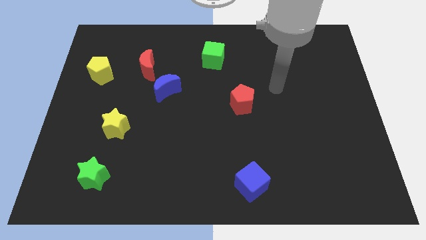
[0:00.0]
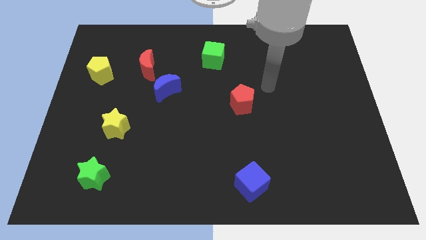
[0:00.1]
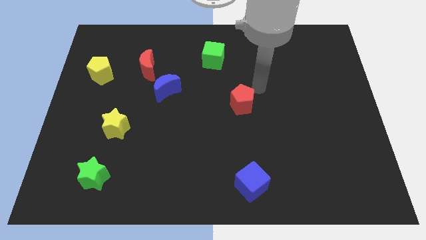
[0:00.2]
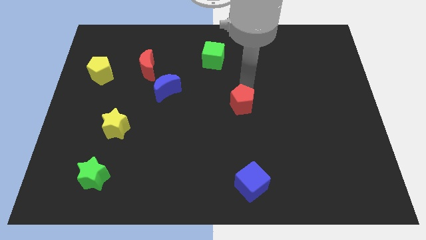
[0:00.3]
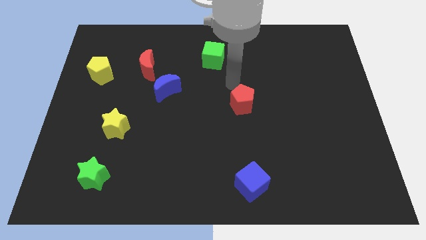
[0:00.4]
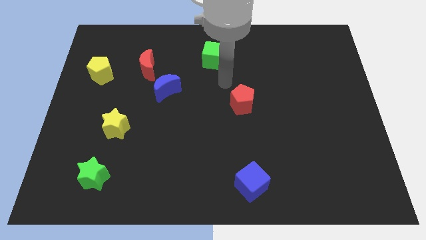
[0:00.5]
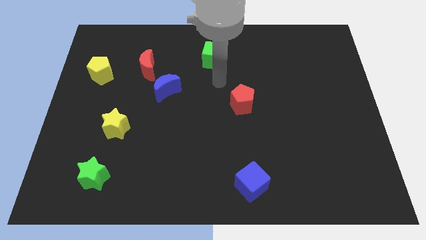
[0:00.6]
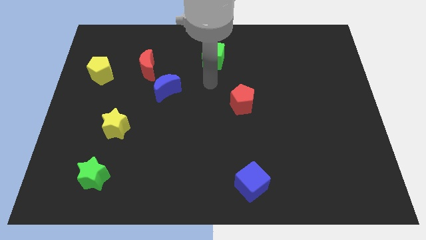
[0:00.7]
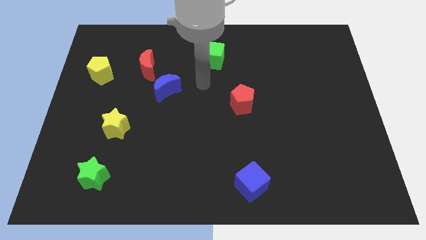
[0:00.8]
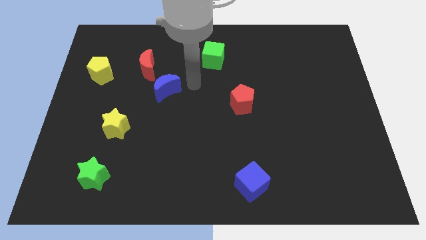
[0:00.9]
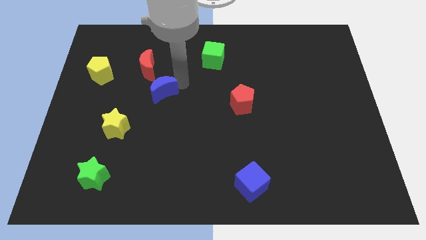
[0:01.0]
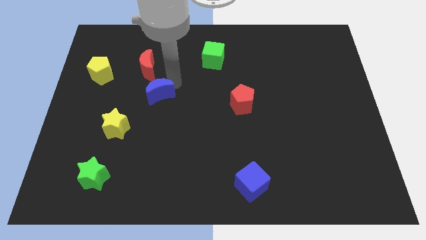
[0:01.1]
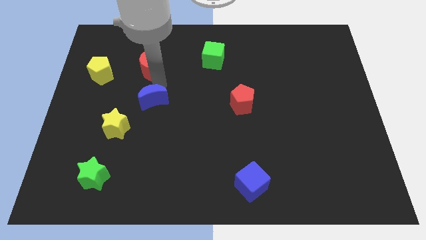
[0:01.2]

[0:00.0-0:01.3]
pull the red moon apart from the blue moon

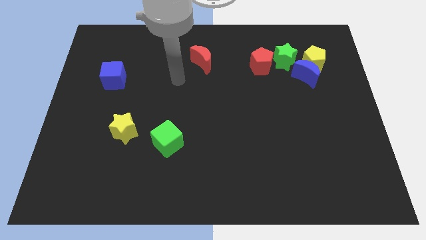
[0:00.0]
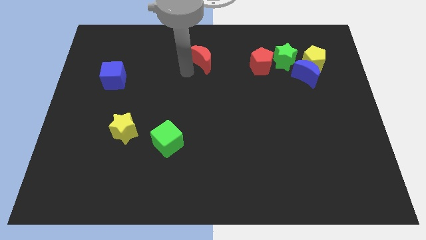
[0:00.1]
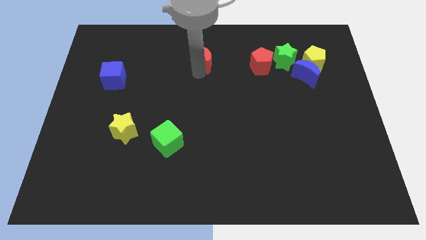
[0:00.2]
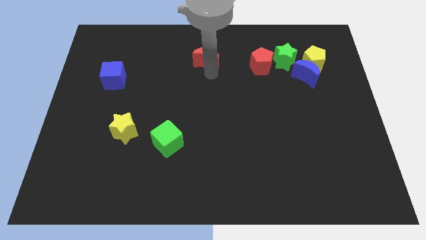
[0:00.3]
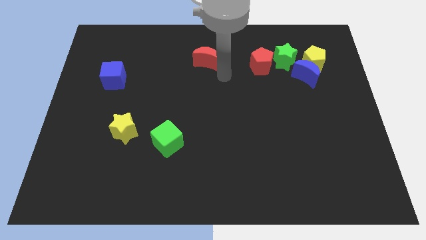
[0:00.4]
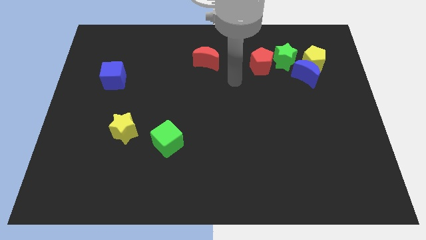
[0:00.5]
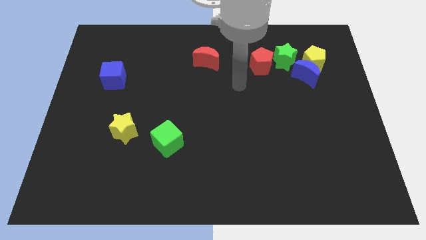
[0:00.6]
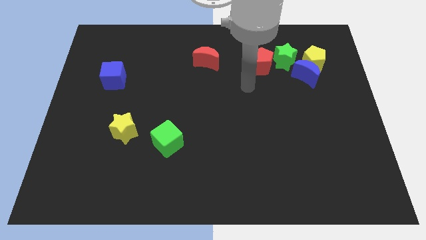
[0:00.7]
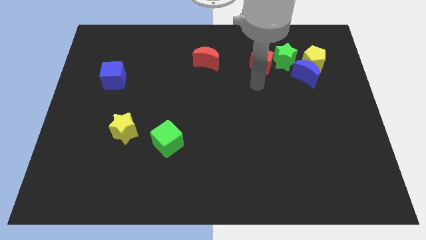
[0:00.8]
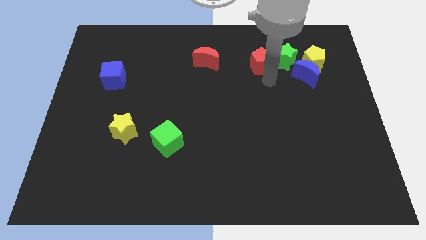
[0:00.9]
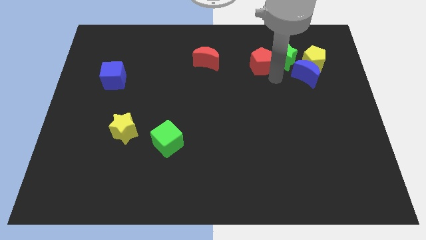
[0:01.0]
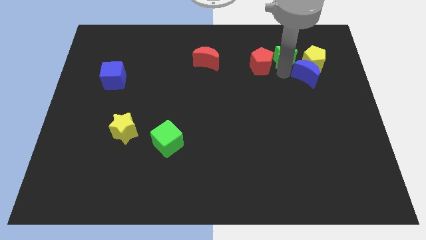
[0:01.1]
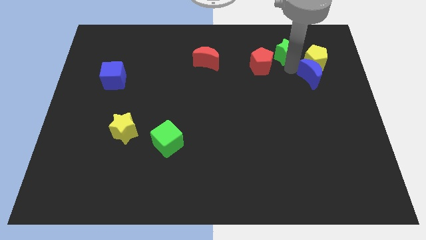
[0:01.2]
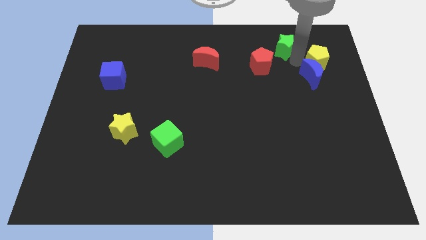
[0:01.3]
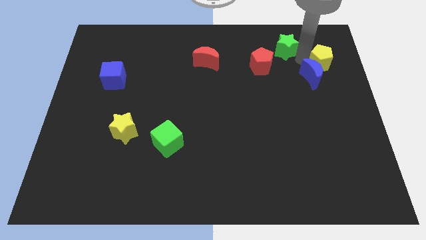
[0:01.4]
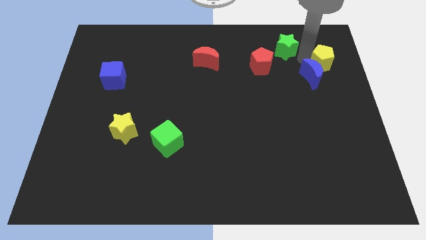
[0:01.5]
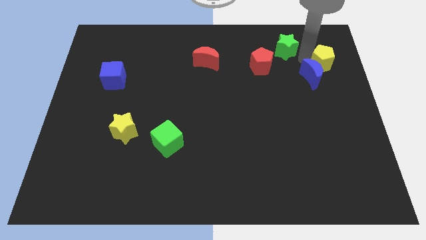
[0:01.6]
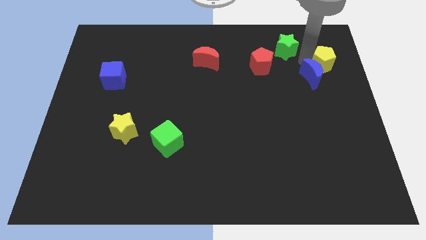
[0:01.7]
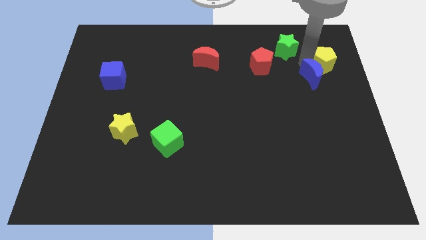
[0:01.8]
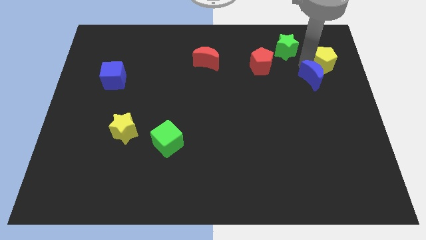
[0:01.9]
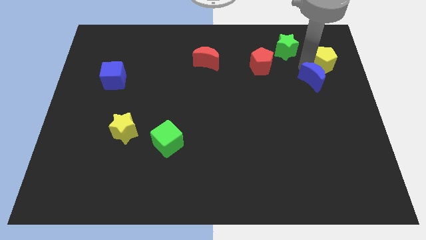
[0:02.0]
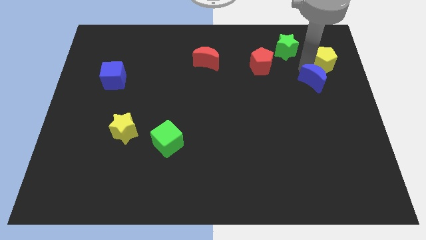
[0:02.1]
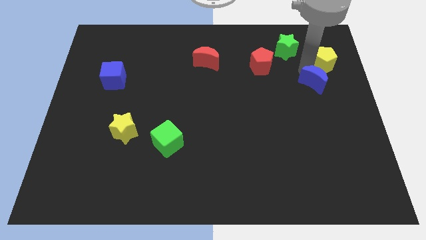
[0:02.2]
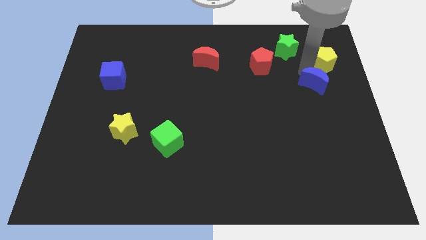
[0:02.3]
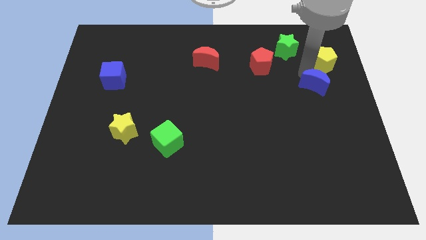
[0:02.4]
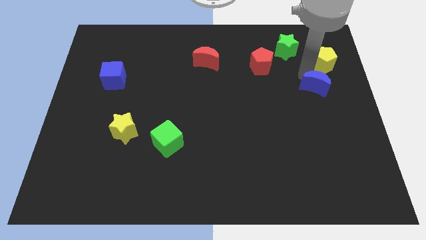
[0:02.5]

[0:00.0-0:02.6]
separate the blue moon from the yellow pentagon and green star

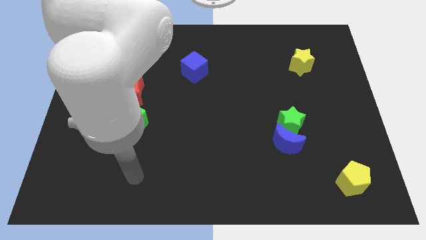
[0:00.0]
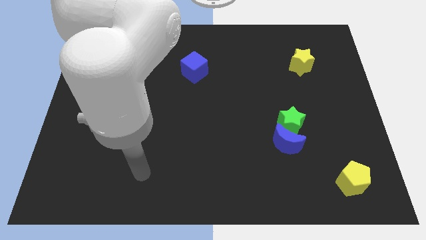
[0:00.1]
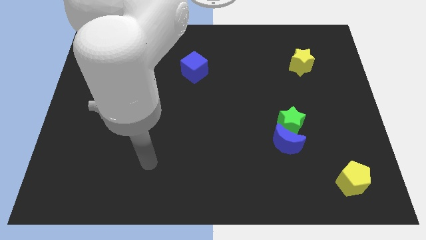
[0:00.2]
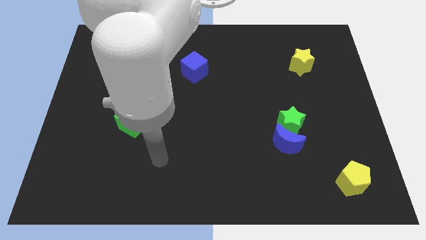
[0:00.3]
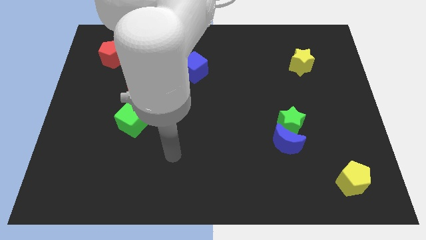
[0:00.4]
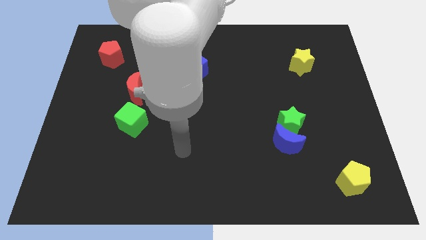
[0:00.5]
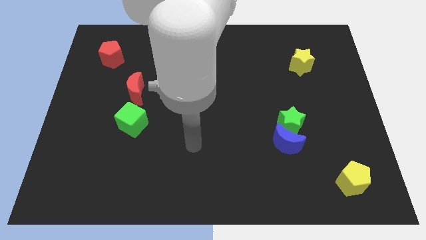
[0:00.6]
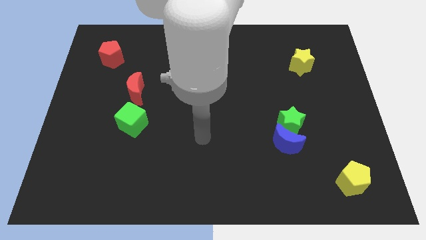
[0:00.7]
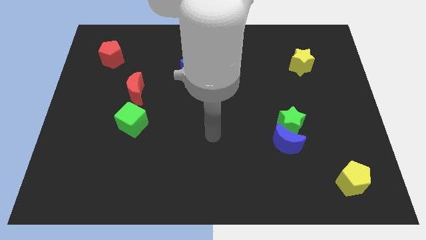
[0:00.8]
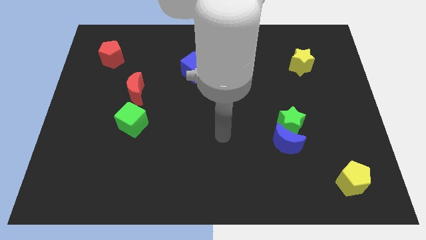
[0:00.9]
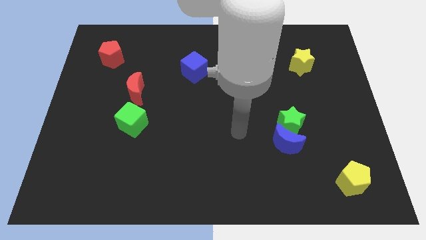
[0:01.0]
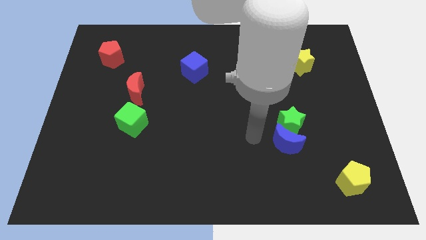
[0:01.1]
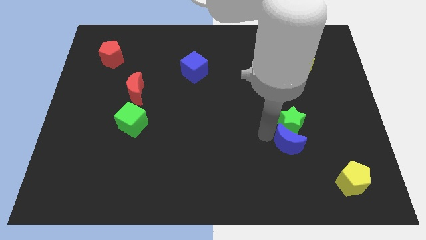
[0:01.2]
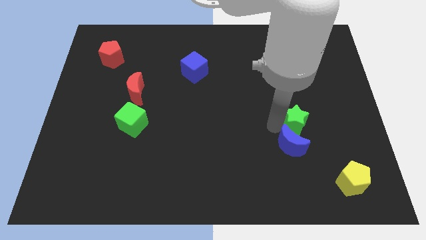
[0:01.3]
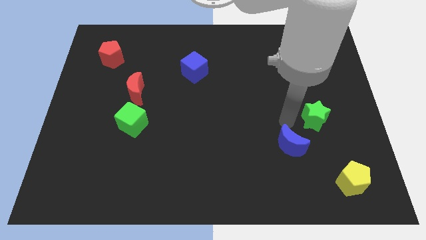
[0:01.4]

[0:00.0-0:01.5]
pull the blue moon apart from the green star

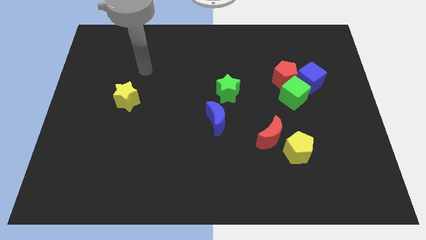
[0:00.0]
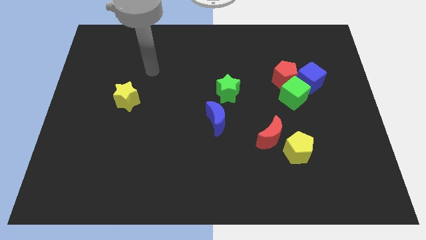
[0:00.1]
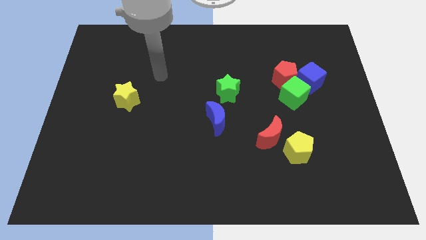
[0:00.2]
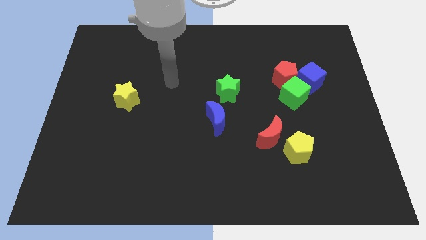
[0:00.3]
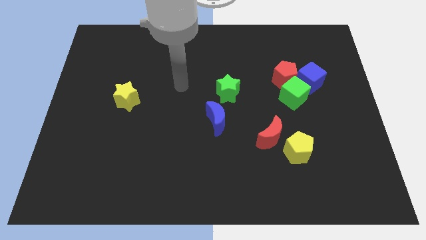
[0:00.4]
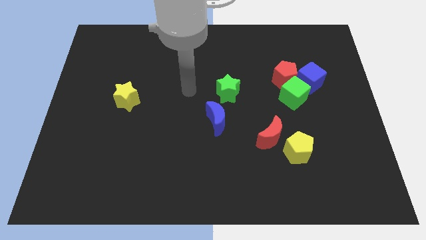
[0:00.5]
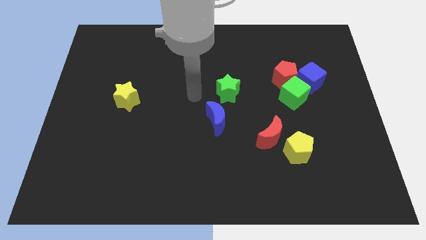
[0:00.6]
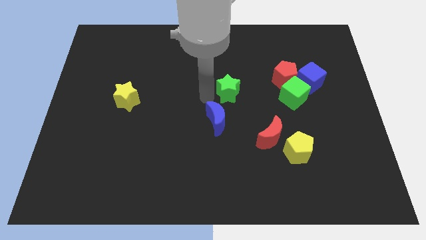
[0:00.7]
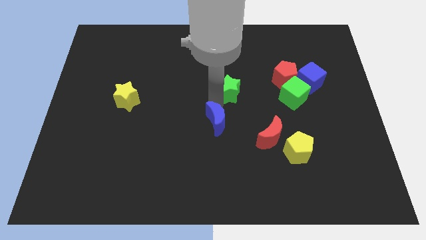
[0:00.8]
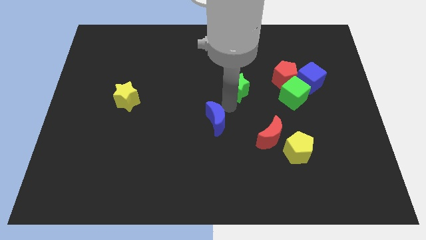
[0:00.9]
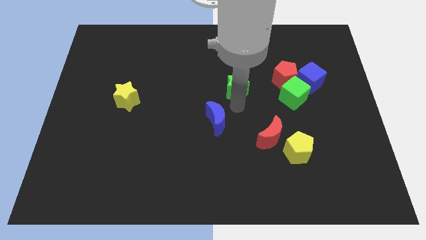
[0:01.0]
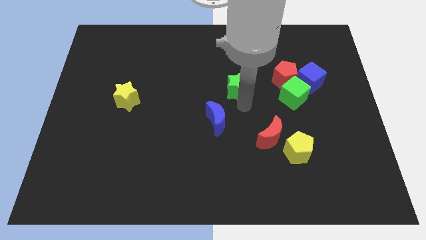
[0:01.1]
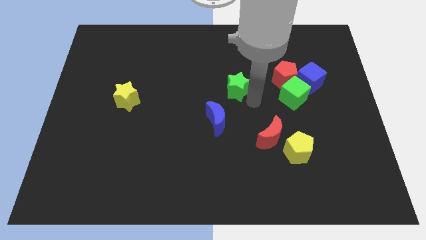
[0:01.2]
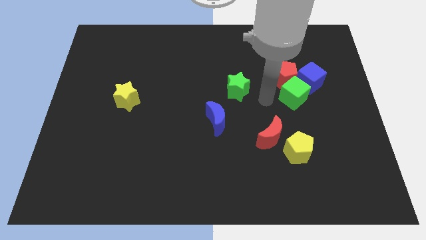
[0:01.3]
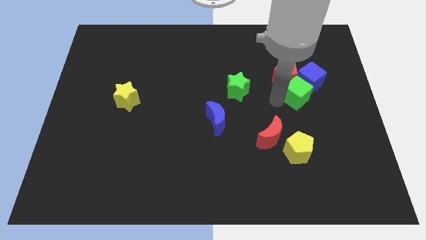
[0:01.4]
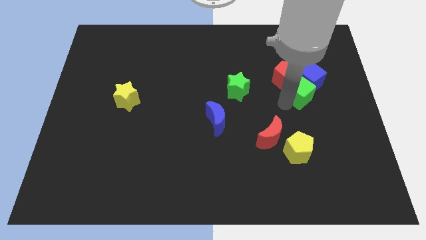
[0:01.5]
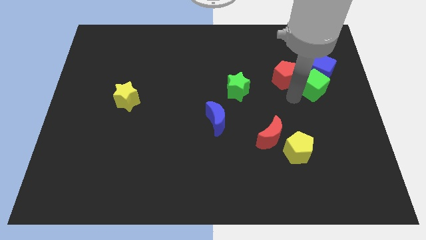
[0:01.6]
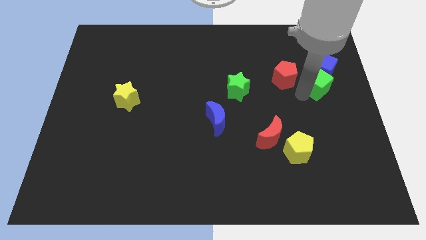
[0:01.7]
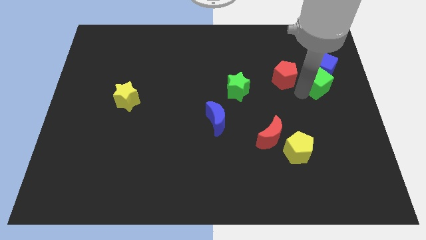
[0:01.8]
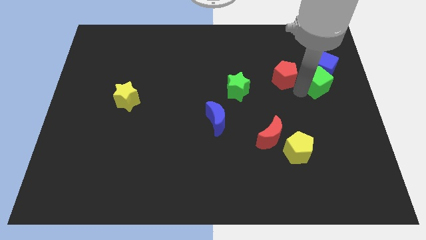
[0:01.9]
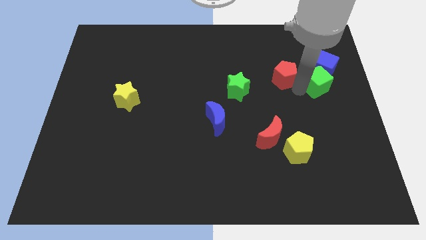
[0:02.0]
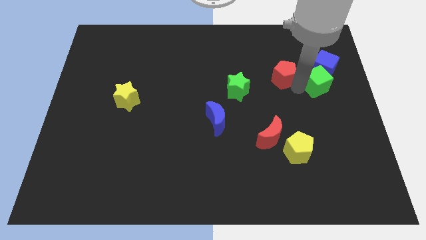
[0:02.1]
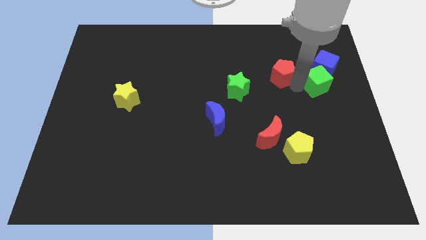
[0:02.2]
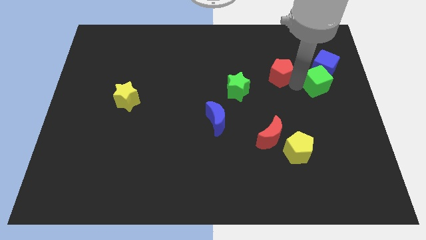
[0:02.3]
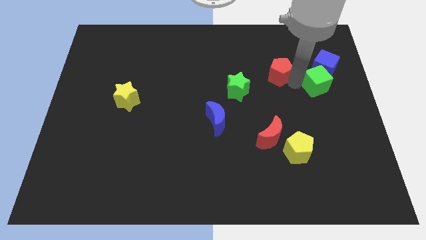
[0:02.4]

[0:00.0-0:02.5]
pull the red pentagon apart from the green cube and blue cube

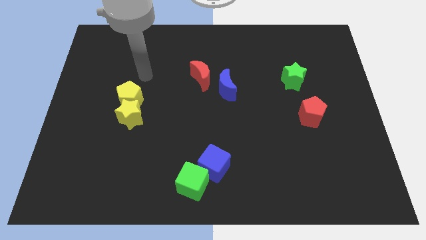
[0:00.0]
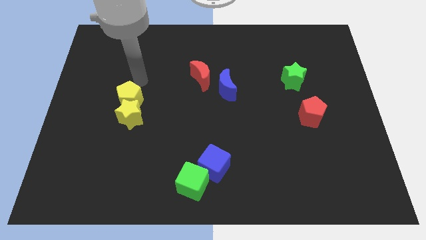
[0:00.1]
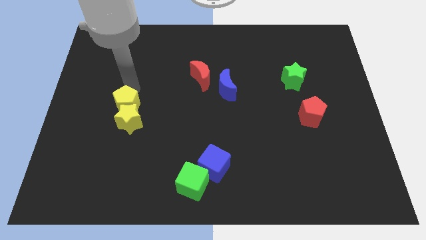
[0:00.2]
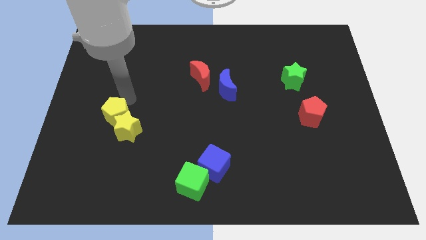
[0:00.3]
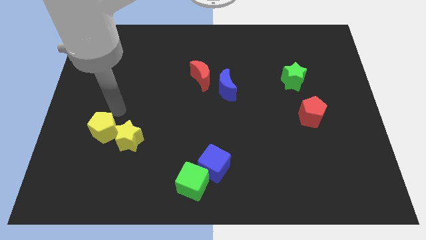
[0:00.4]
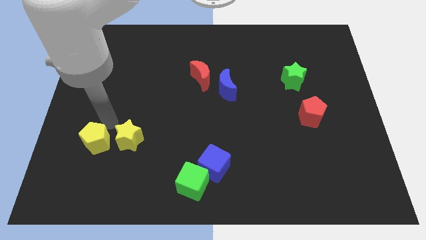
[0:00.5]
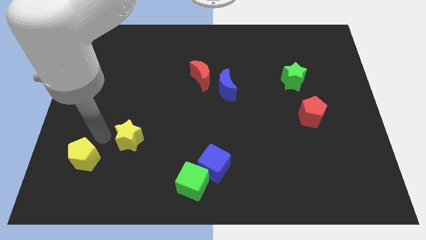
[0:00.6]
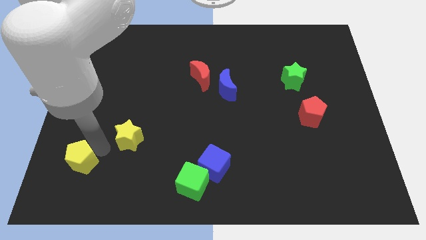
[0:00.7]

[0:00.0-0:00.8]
separate the yellow star from the yellow pentagon

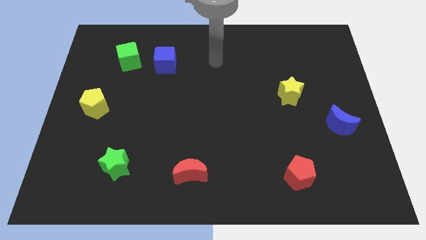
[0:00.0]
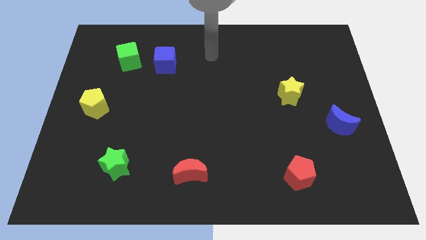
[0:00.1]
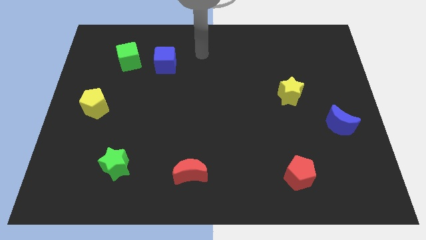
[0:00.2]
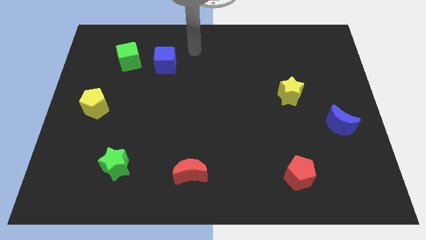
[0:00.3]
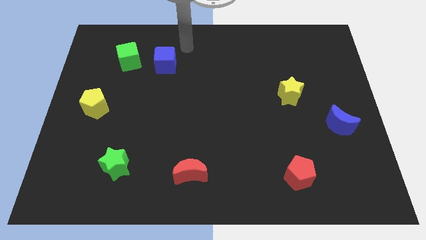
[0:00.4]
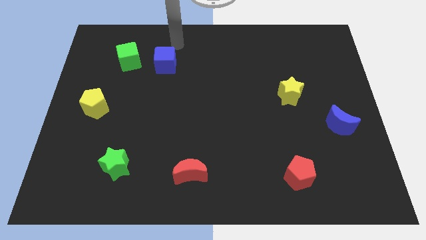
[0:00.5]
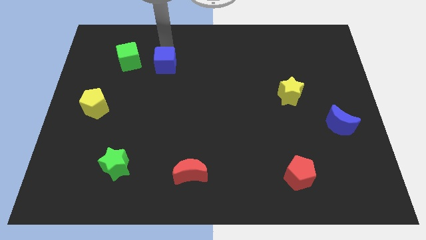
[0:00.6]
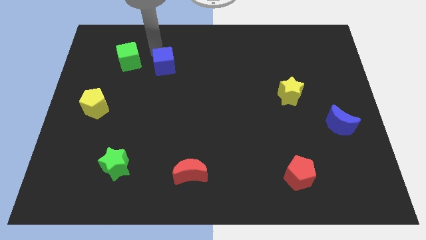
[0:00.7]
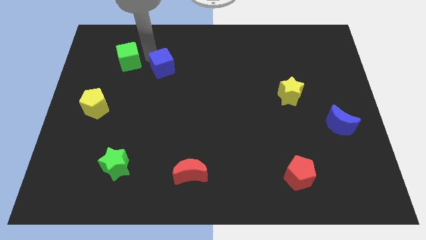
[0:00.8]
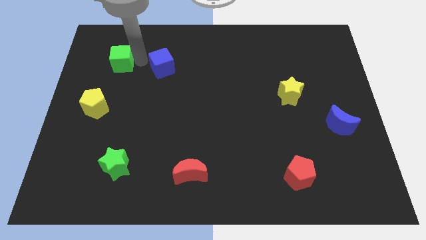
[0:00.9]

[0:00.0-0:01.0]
move the blue cube away from the green cube
